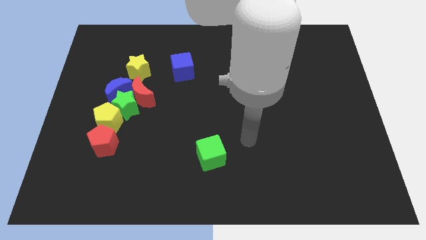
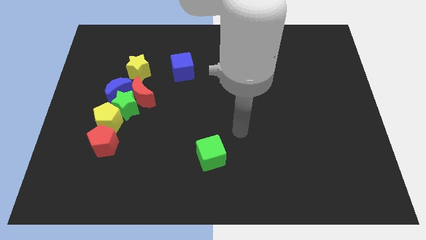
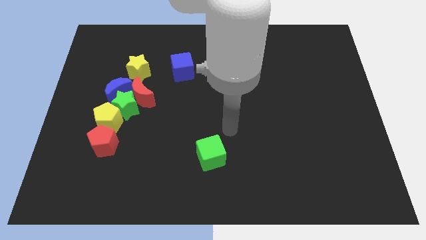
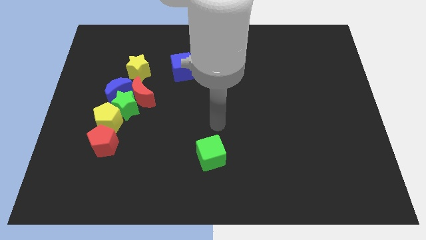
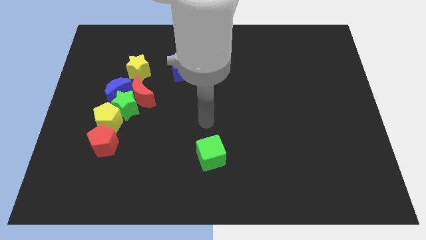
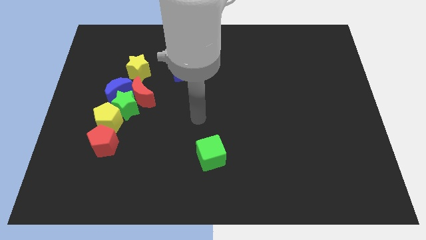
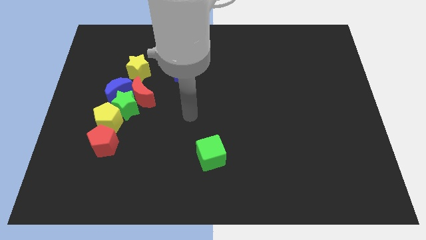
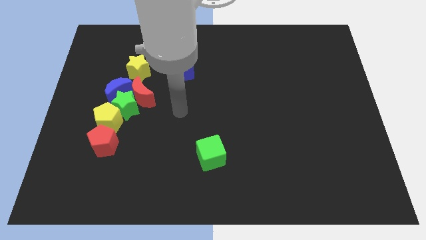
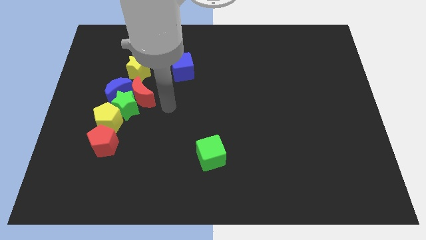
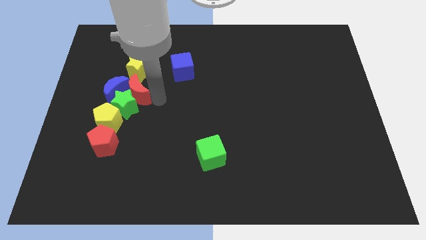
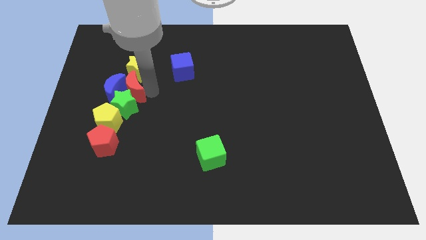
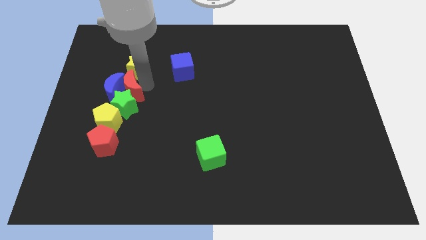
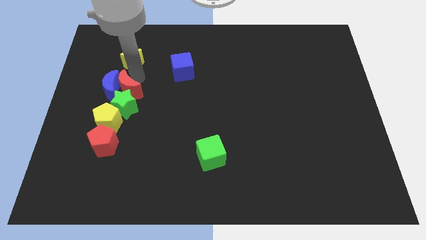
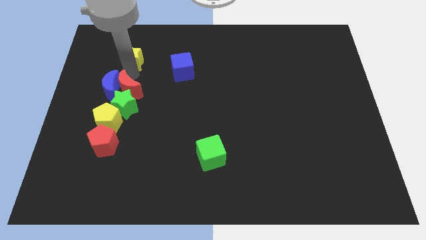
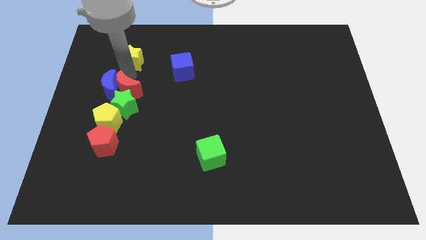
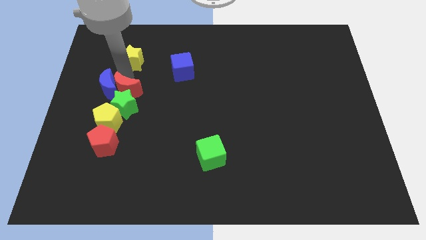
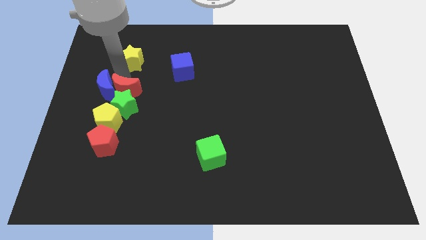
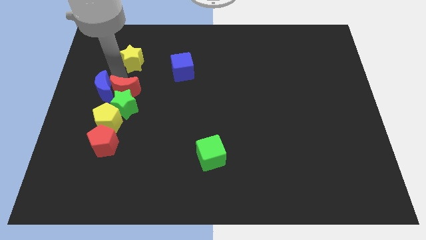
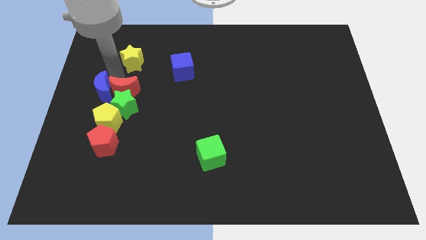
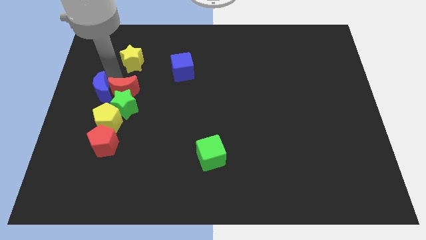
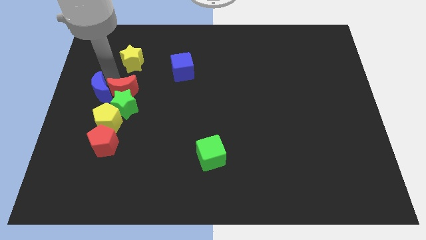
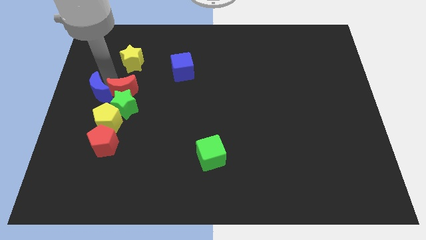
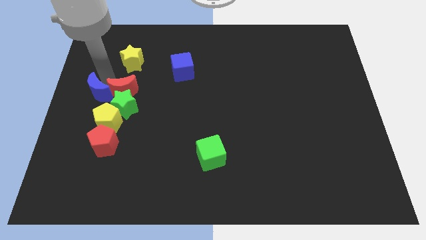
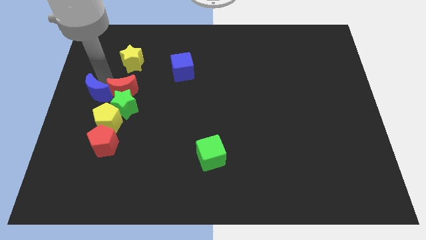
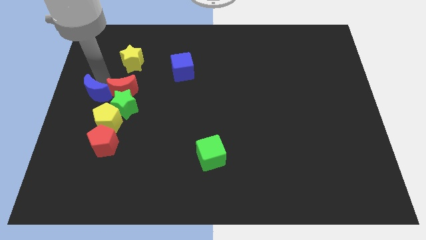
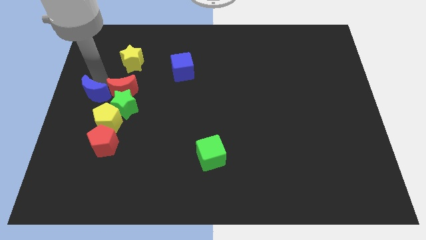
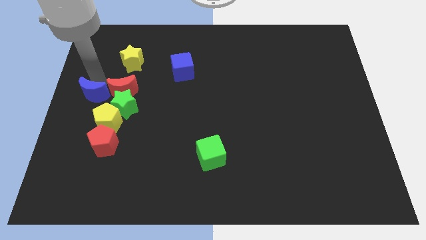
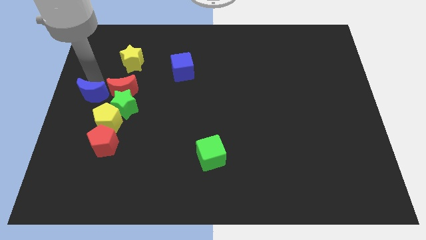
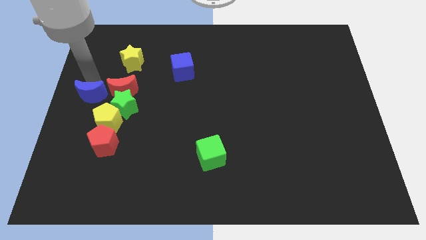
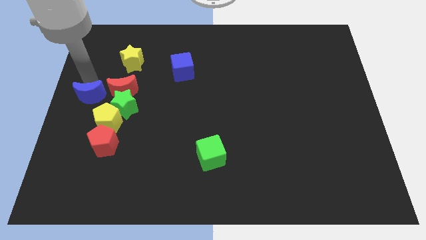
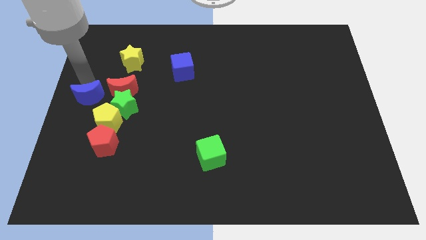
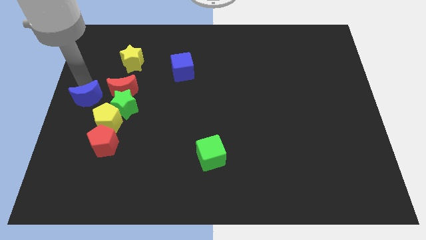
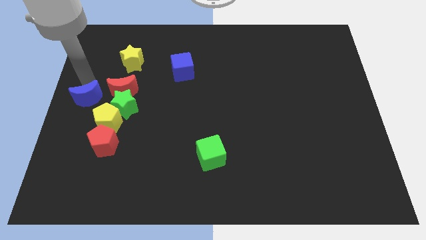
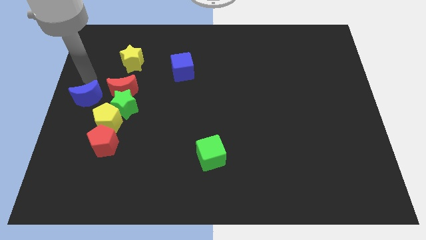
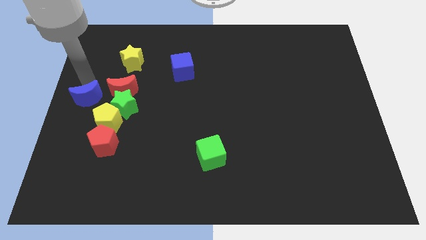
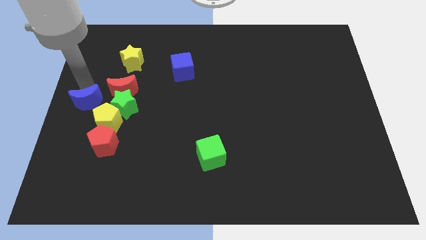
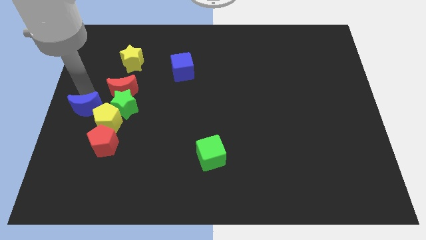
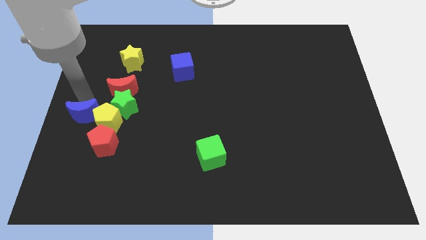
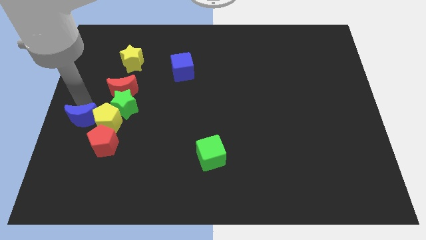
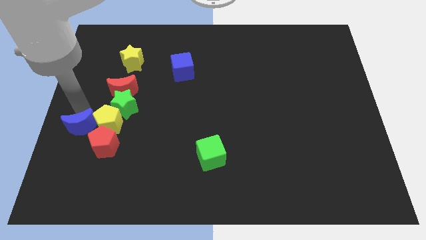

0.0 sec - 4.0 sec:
slightly push the blue moon downwards

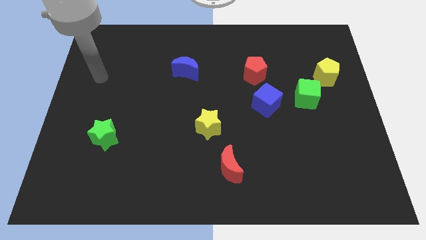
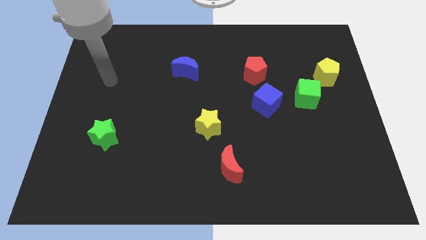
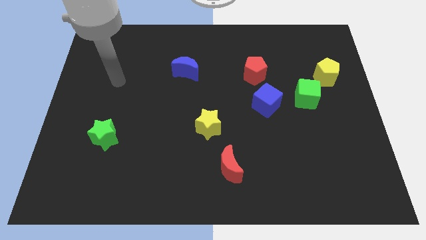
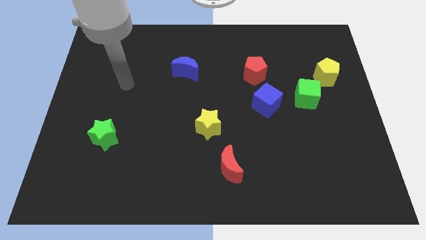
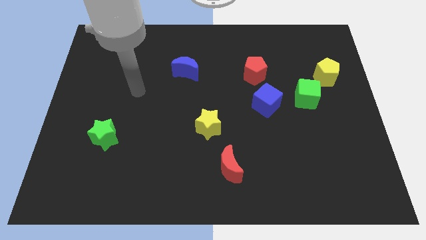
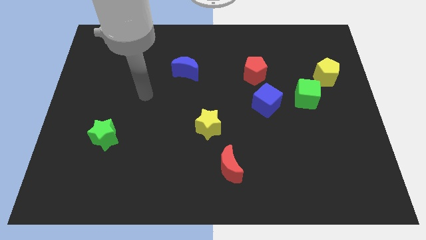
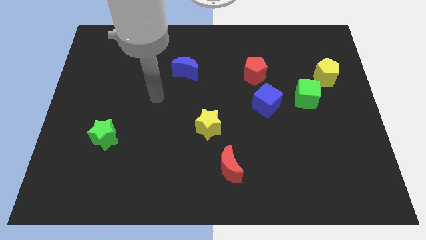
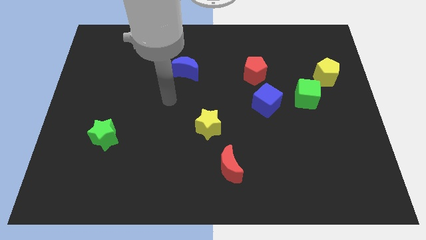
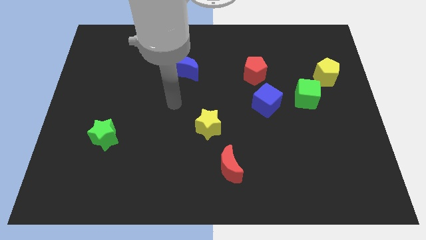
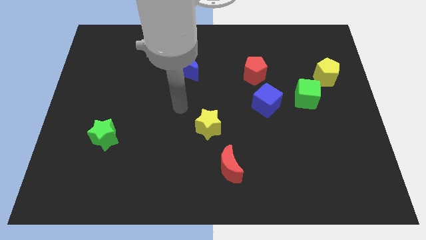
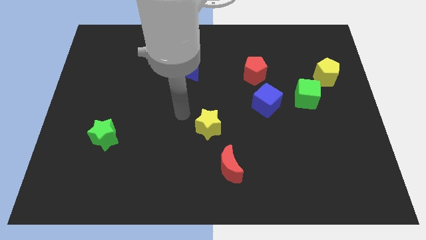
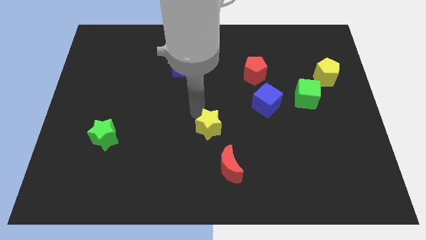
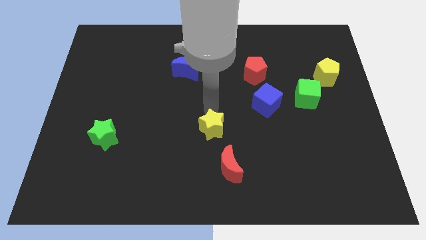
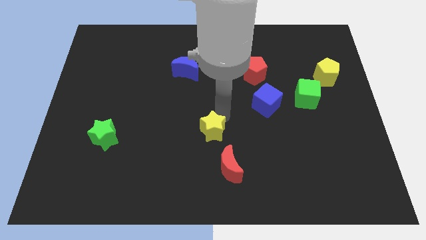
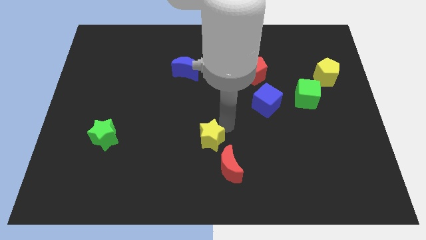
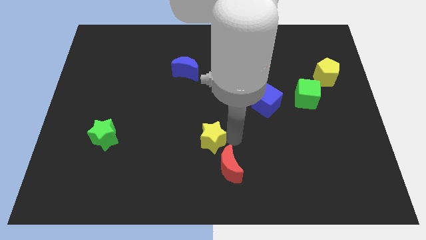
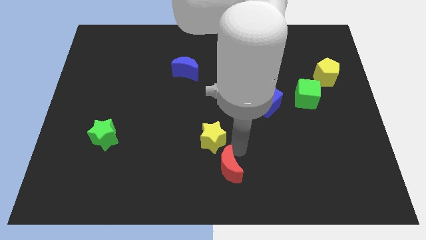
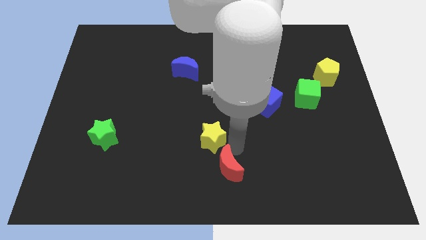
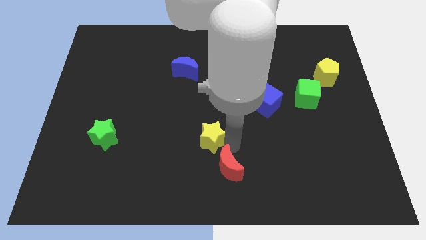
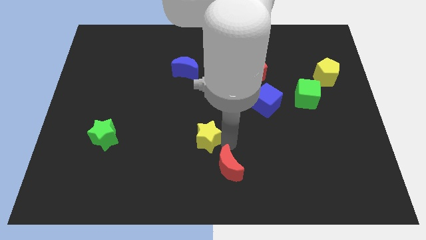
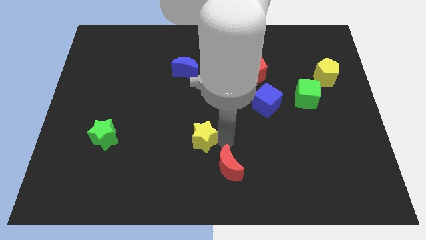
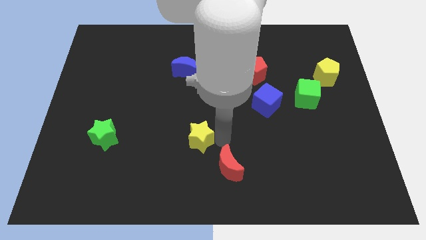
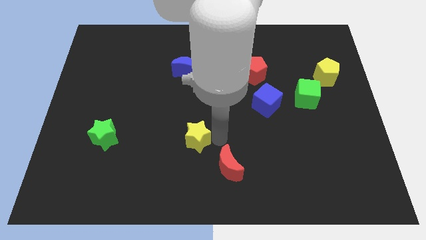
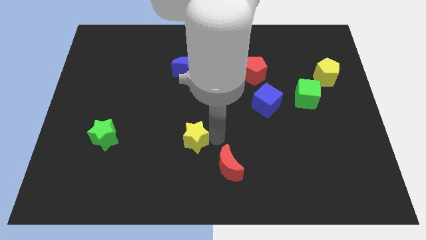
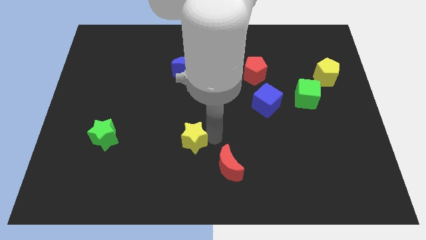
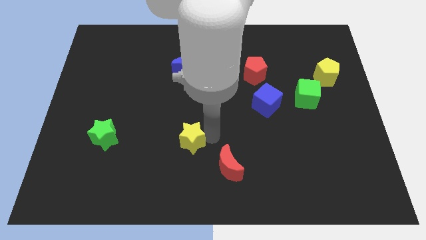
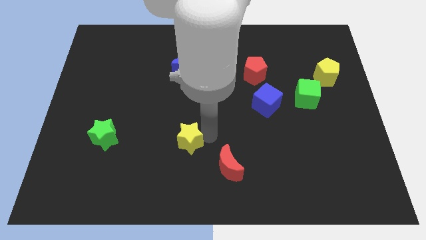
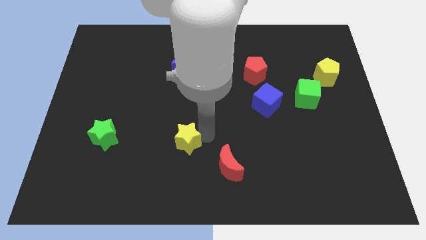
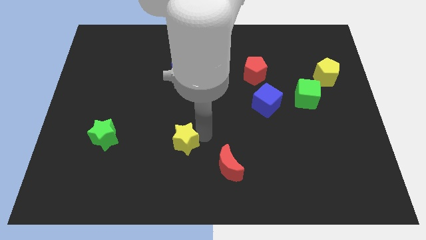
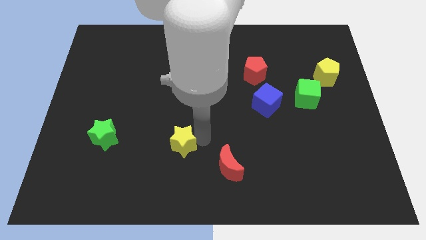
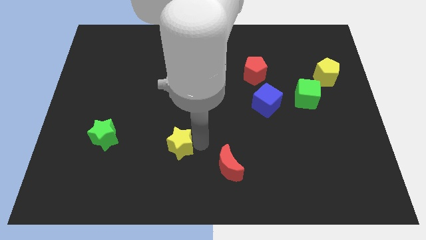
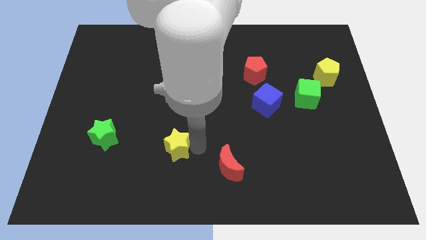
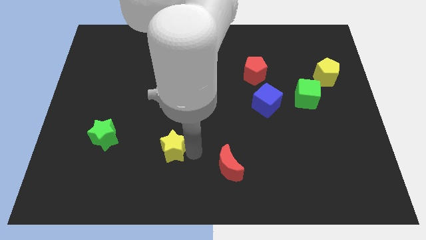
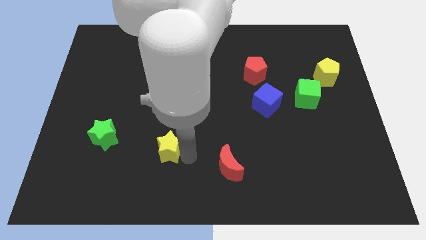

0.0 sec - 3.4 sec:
move the yellow star a little left

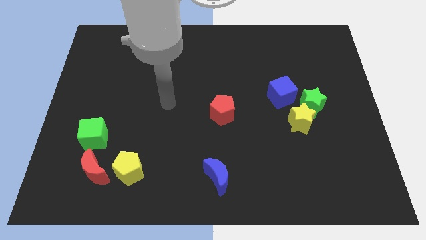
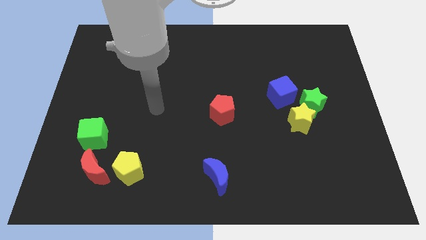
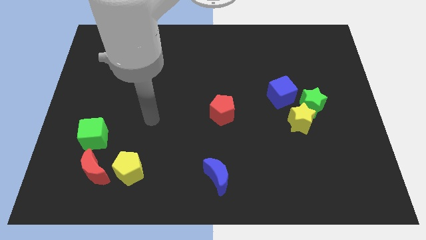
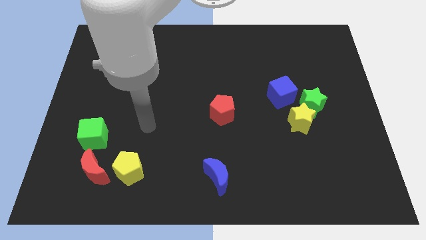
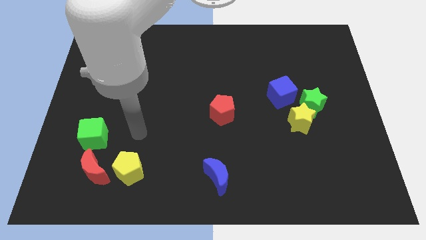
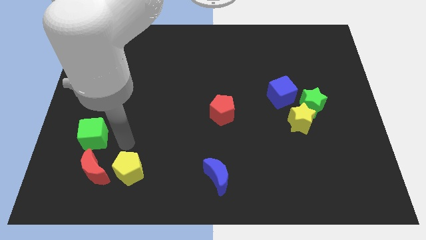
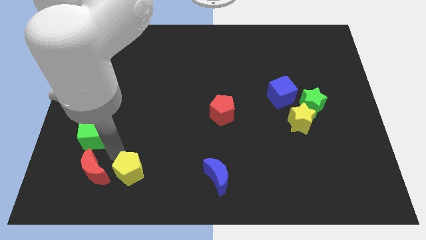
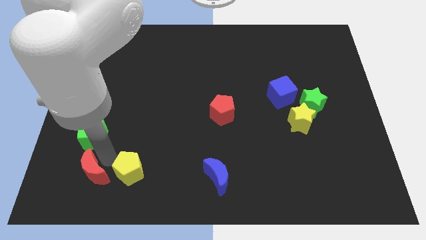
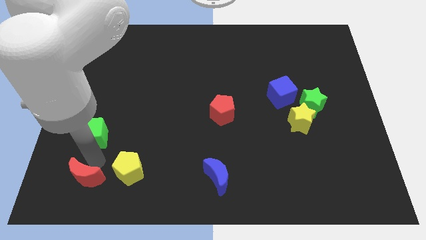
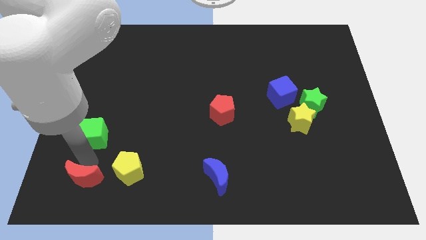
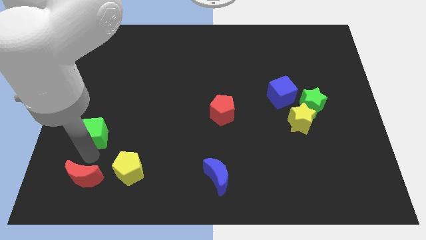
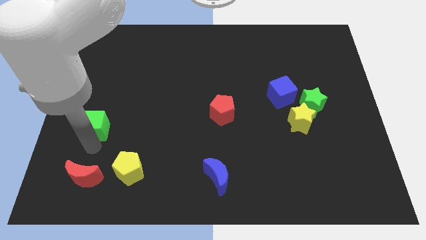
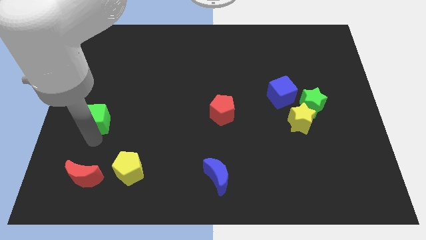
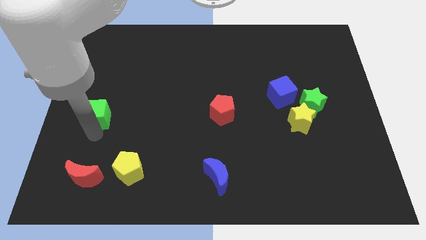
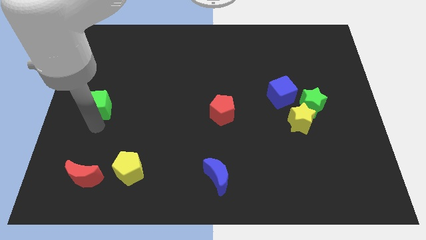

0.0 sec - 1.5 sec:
slide the green cube a little bit up
